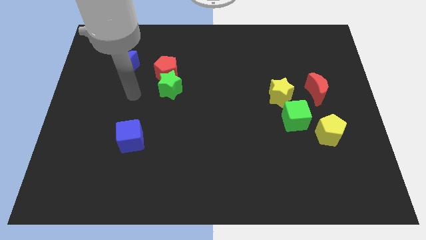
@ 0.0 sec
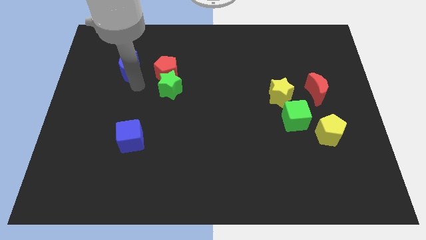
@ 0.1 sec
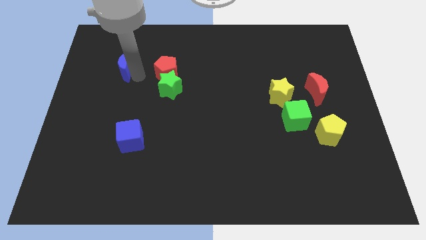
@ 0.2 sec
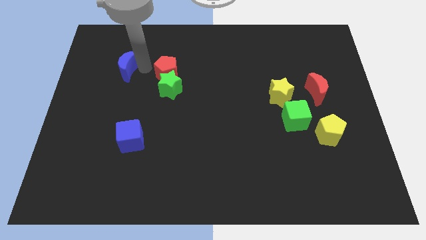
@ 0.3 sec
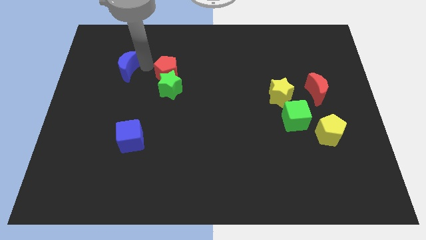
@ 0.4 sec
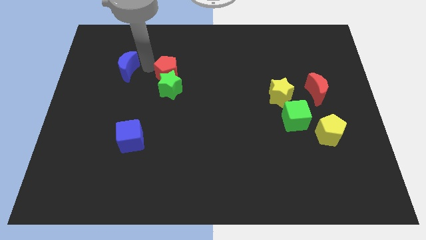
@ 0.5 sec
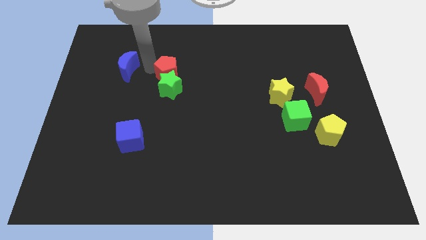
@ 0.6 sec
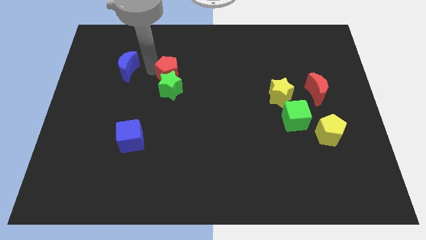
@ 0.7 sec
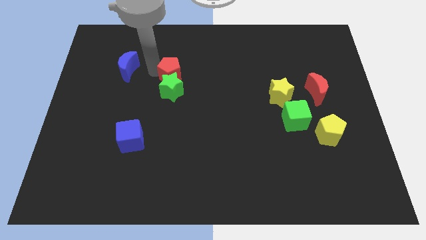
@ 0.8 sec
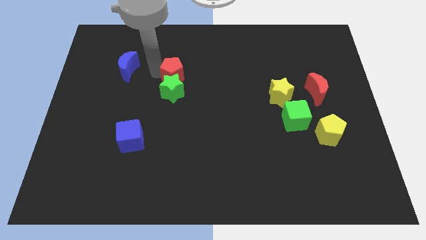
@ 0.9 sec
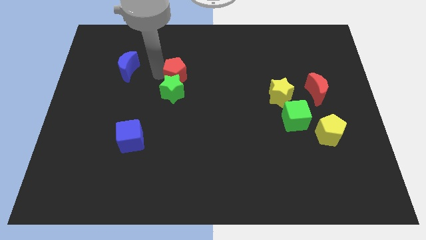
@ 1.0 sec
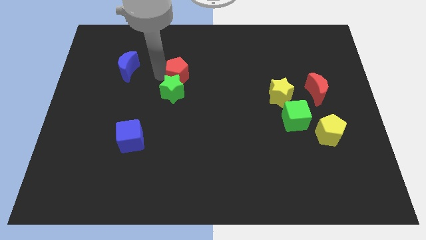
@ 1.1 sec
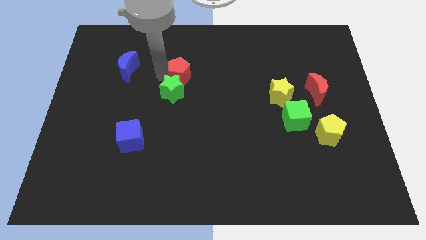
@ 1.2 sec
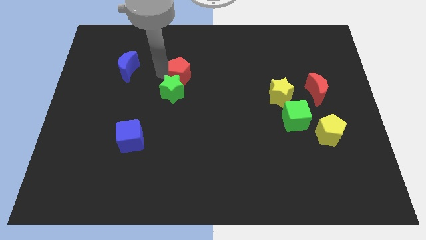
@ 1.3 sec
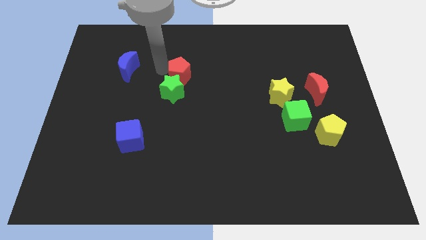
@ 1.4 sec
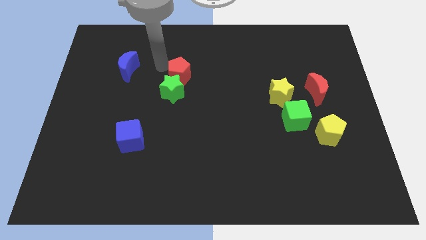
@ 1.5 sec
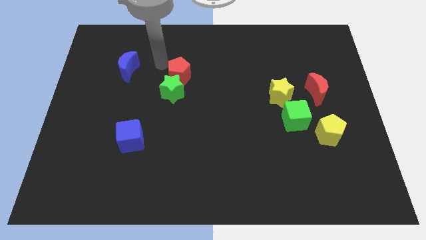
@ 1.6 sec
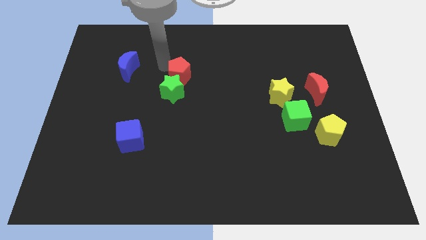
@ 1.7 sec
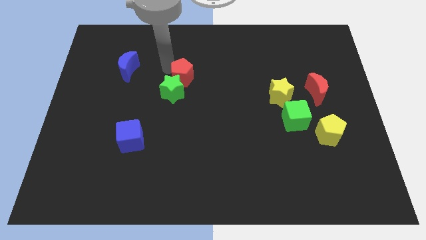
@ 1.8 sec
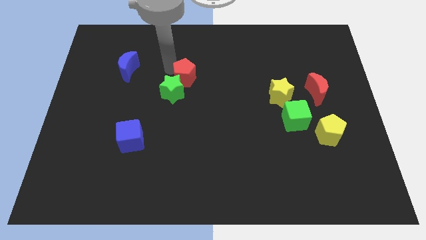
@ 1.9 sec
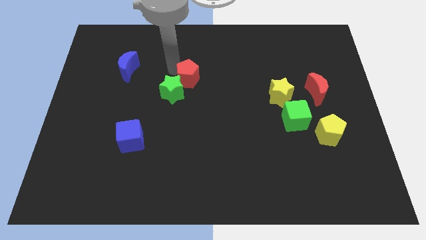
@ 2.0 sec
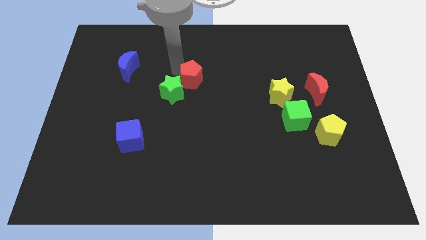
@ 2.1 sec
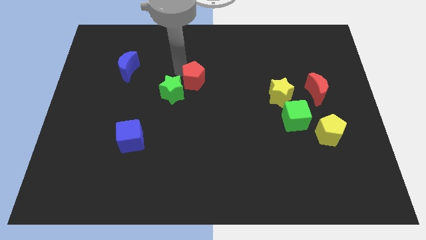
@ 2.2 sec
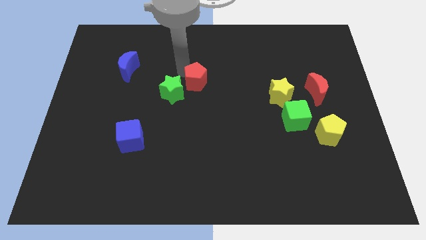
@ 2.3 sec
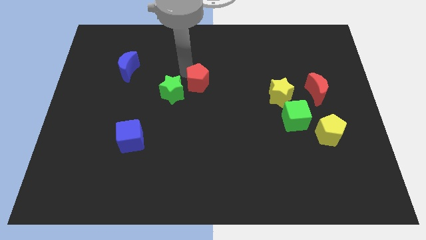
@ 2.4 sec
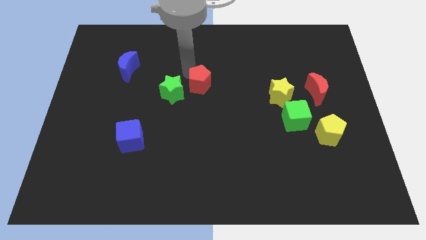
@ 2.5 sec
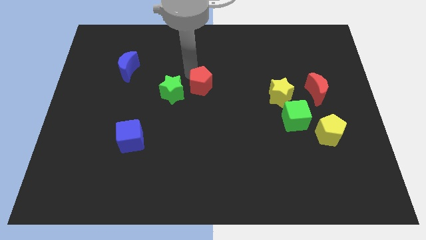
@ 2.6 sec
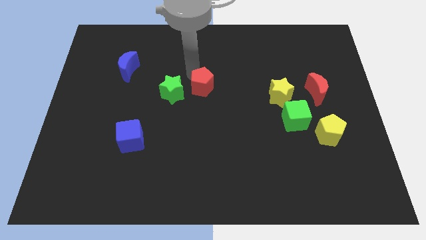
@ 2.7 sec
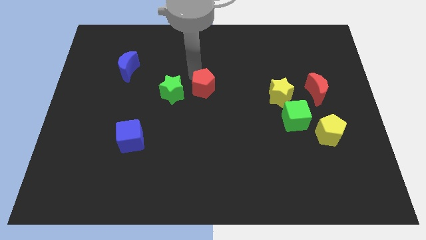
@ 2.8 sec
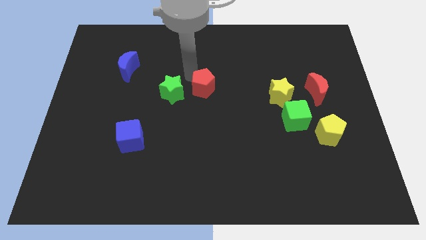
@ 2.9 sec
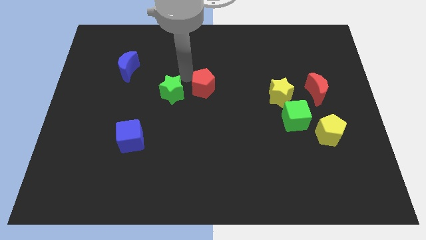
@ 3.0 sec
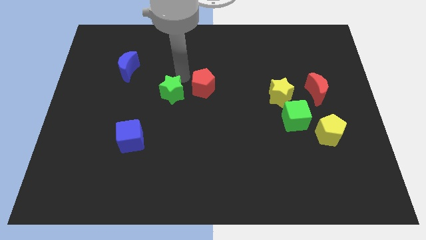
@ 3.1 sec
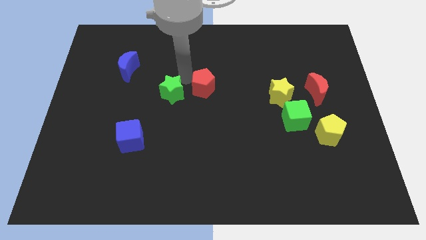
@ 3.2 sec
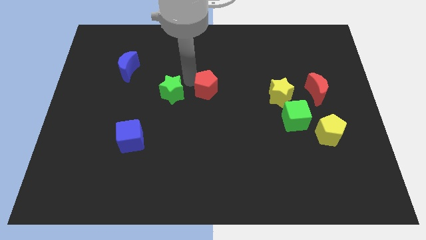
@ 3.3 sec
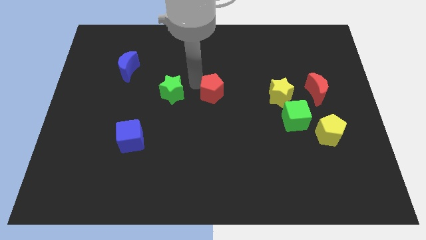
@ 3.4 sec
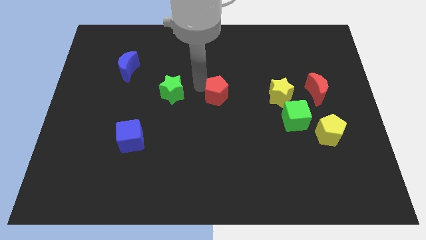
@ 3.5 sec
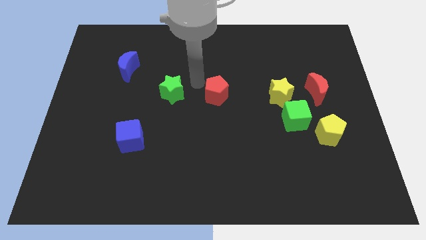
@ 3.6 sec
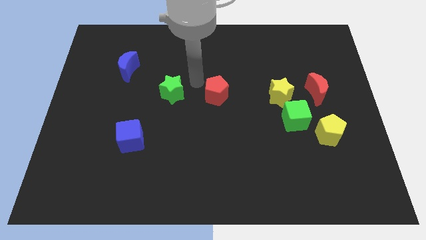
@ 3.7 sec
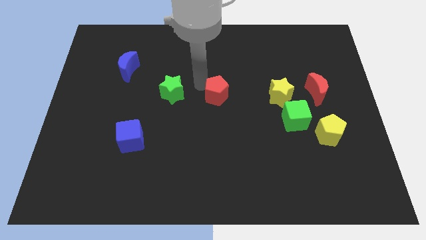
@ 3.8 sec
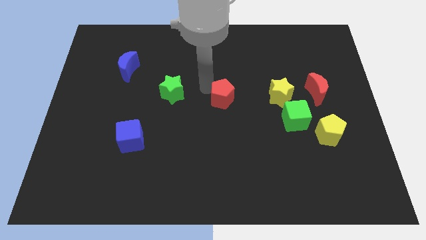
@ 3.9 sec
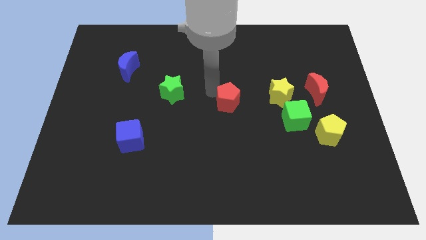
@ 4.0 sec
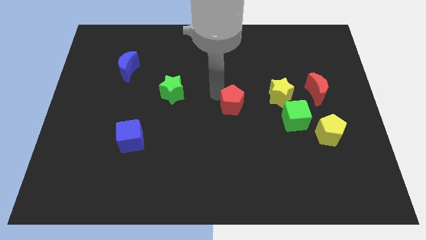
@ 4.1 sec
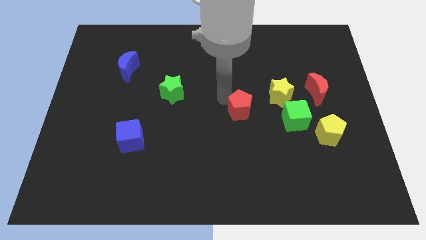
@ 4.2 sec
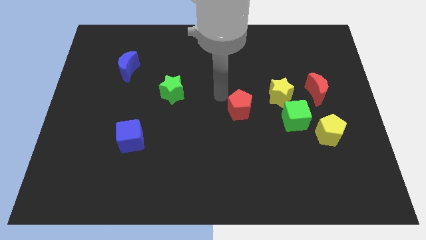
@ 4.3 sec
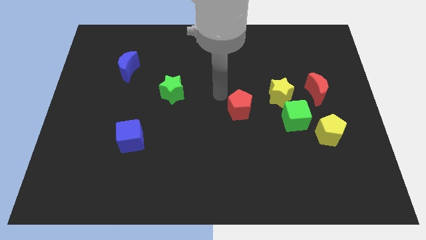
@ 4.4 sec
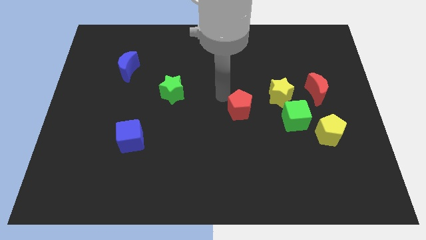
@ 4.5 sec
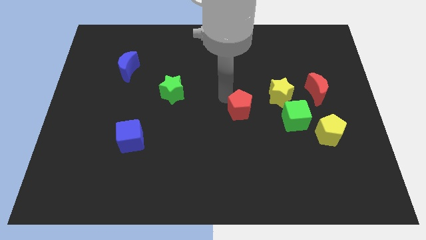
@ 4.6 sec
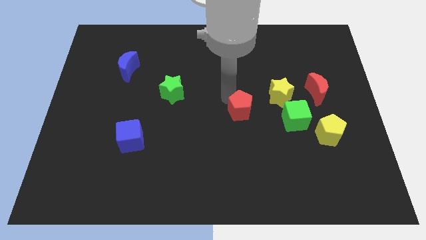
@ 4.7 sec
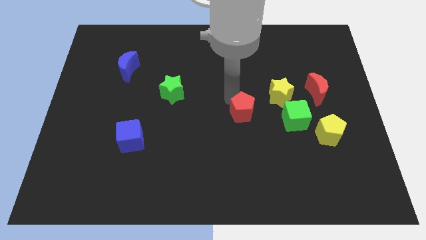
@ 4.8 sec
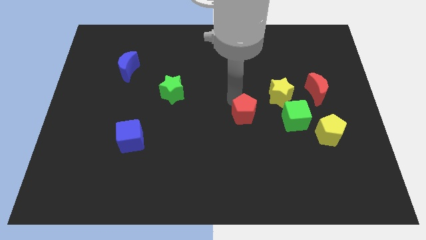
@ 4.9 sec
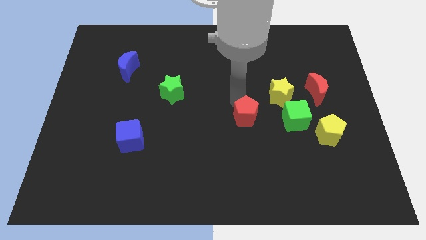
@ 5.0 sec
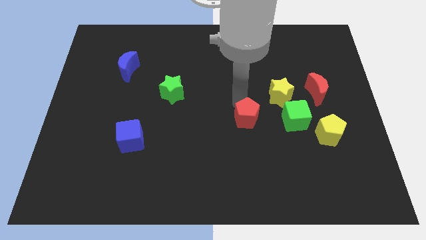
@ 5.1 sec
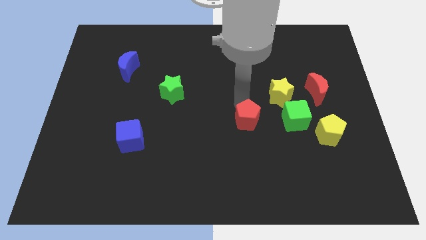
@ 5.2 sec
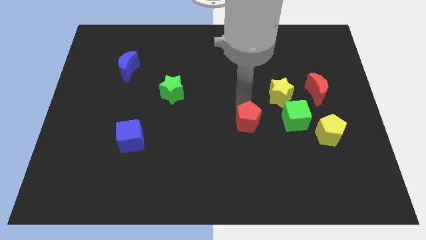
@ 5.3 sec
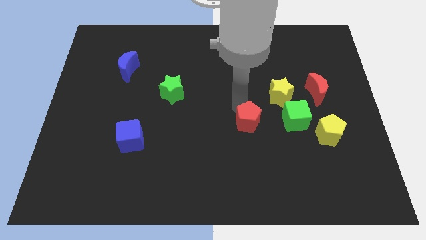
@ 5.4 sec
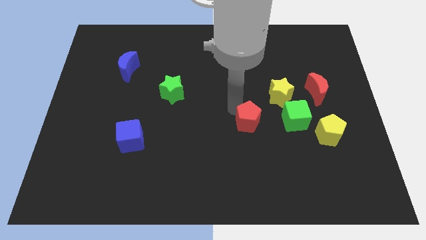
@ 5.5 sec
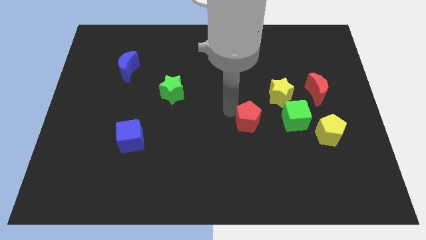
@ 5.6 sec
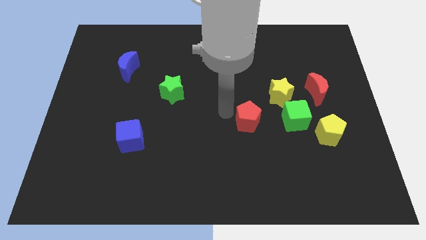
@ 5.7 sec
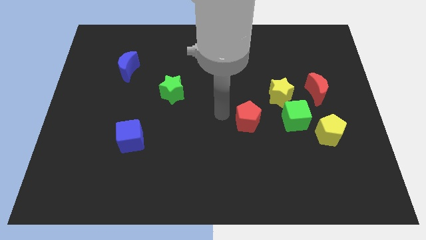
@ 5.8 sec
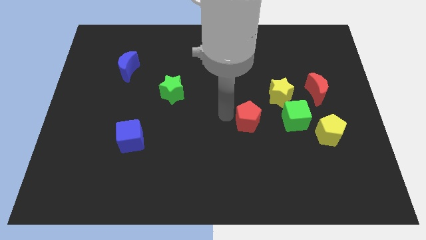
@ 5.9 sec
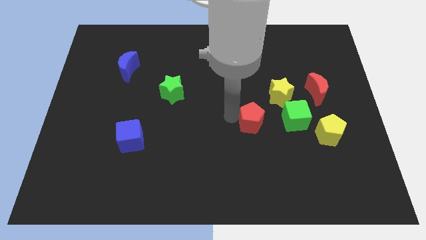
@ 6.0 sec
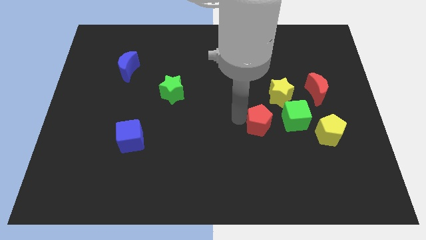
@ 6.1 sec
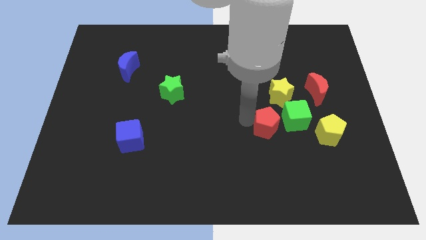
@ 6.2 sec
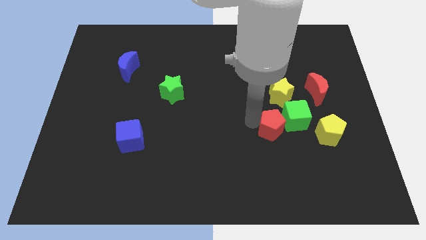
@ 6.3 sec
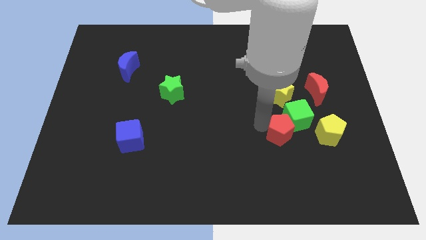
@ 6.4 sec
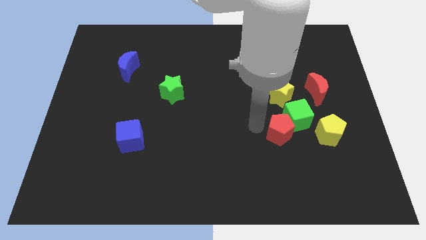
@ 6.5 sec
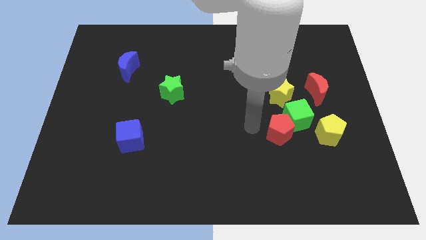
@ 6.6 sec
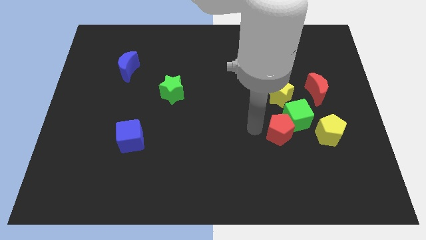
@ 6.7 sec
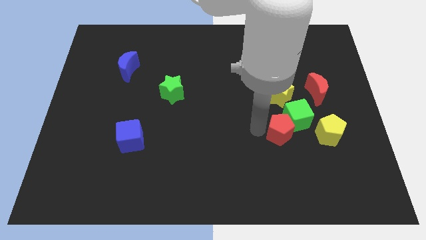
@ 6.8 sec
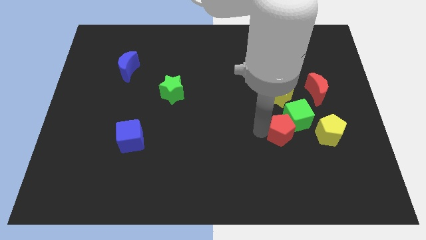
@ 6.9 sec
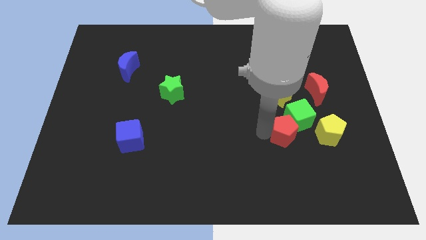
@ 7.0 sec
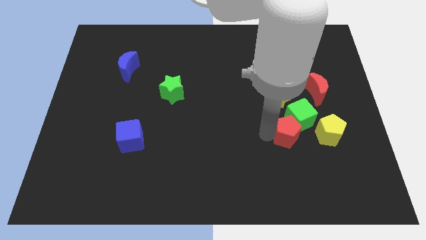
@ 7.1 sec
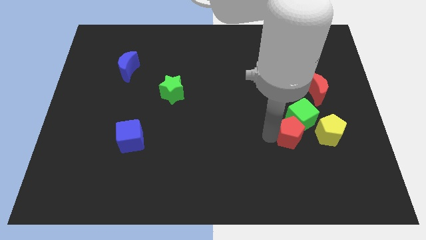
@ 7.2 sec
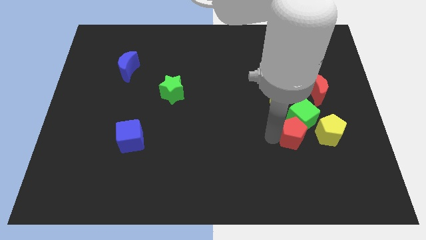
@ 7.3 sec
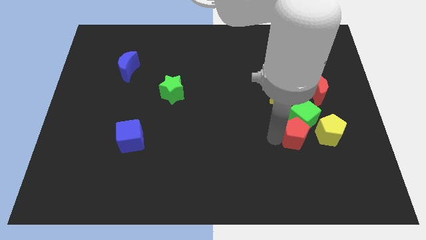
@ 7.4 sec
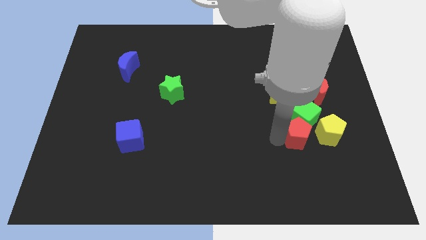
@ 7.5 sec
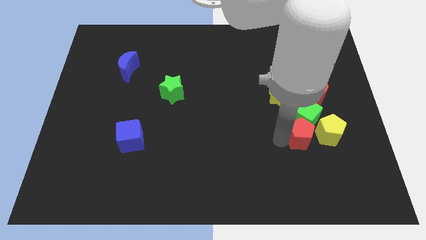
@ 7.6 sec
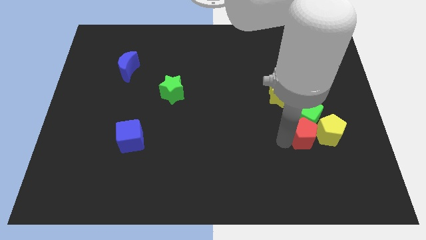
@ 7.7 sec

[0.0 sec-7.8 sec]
slide the red pentagon towards the yellow pentagon
